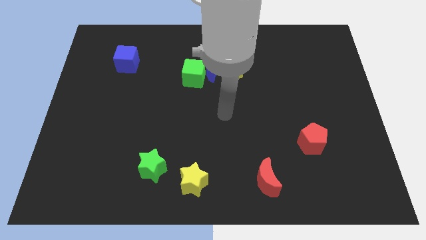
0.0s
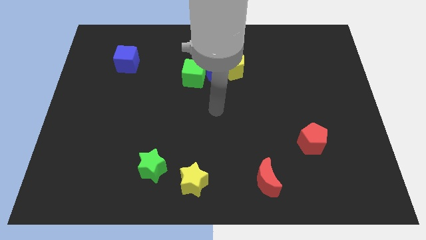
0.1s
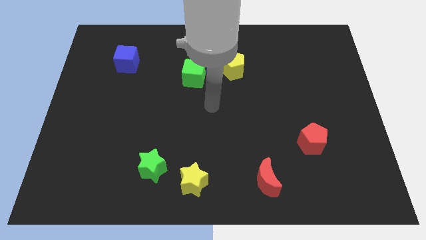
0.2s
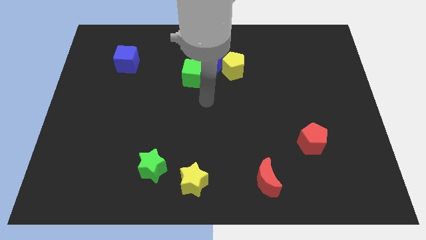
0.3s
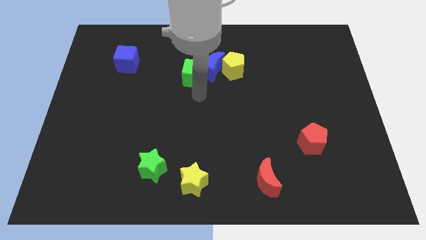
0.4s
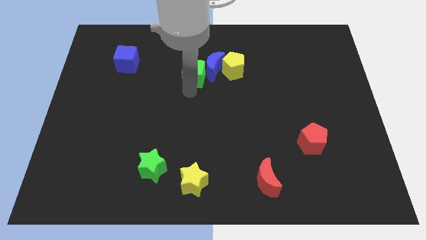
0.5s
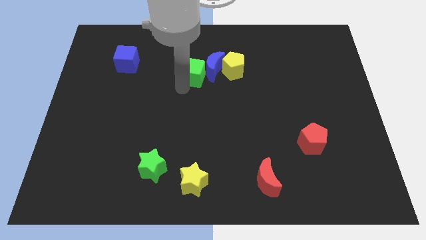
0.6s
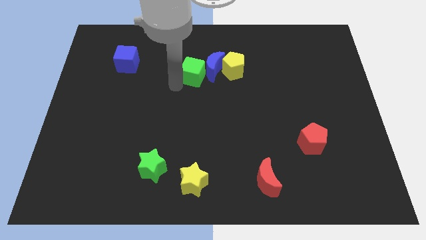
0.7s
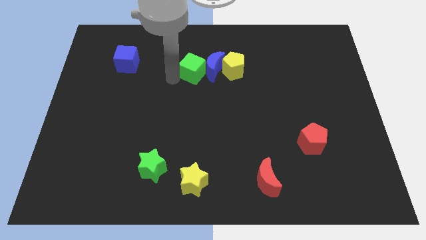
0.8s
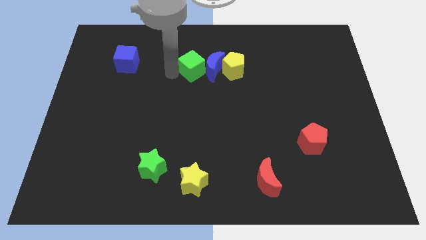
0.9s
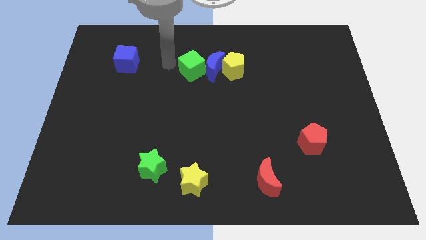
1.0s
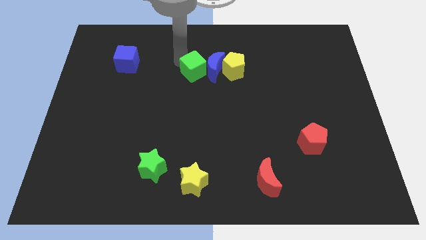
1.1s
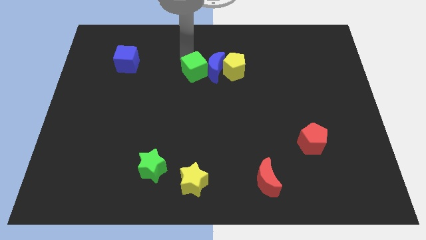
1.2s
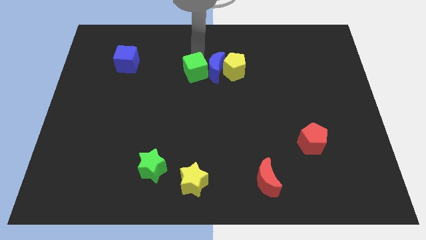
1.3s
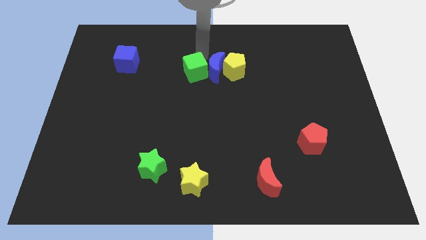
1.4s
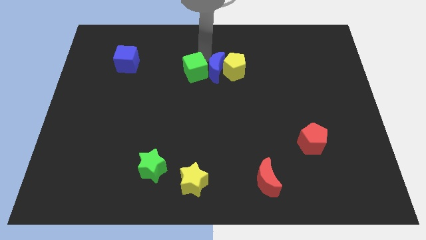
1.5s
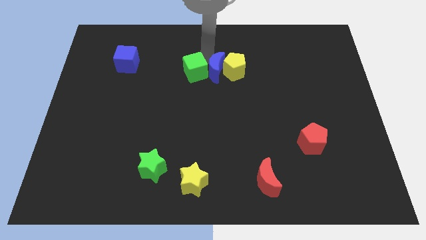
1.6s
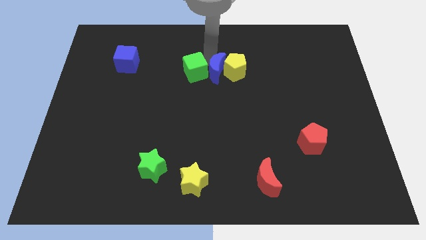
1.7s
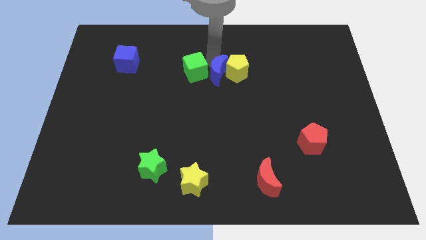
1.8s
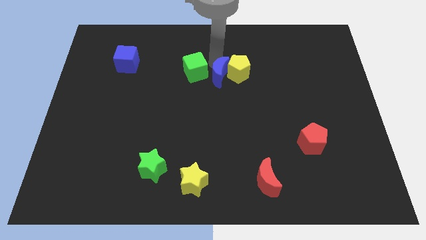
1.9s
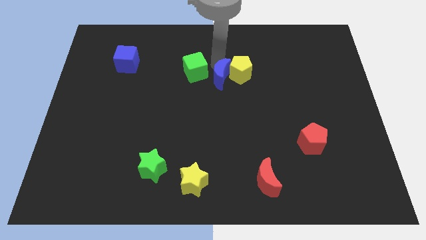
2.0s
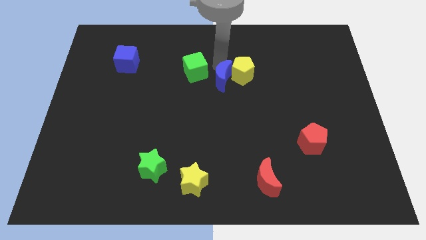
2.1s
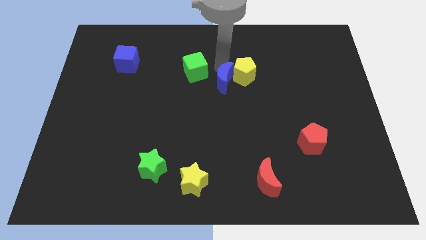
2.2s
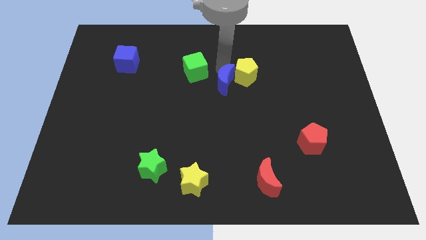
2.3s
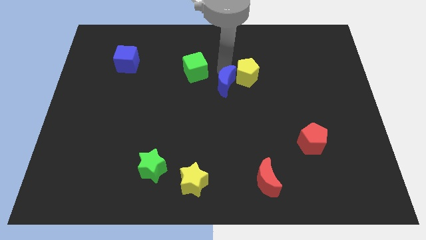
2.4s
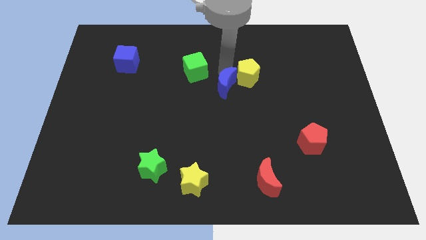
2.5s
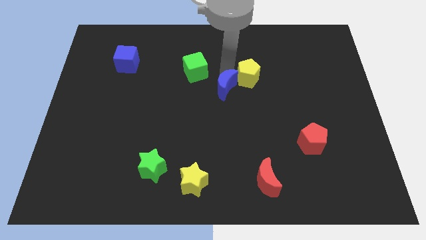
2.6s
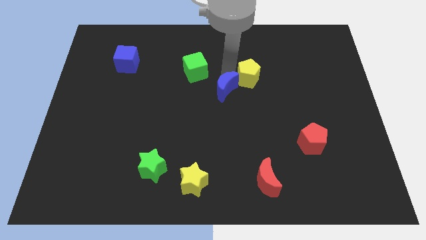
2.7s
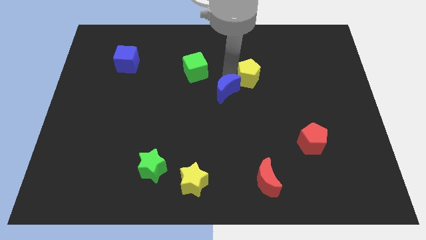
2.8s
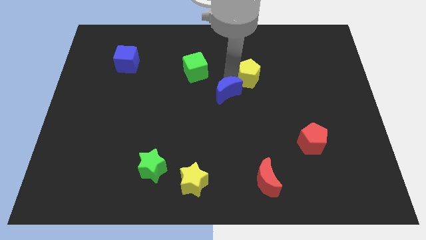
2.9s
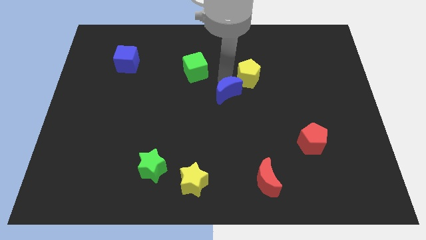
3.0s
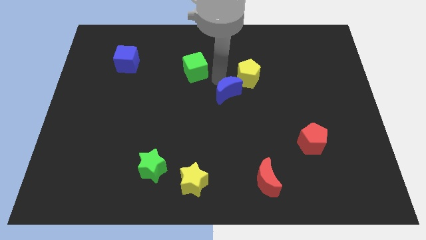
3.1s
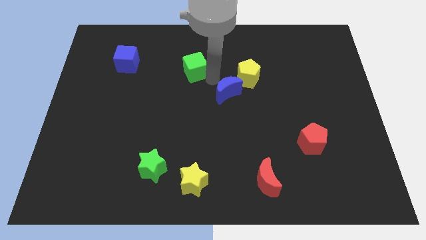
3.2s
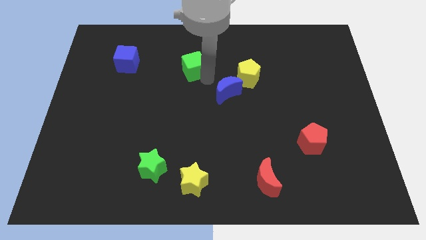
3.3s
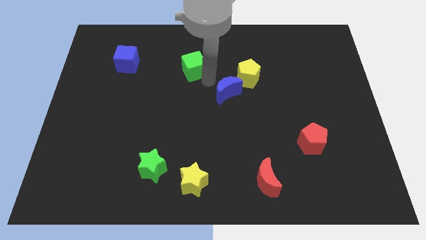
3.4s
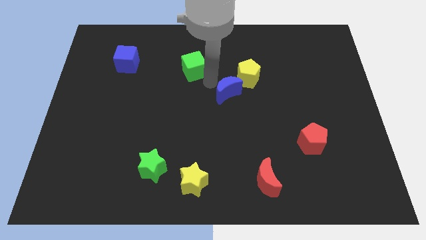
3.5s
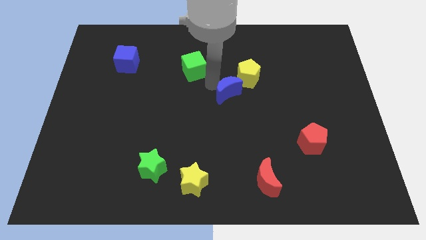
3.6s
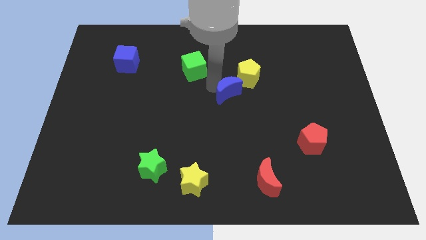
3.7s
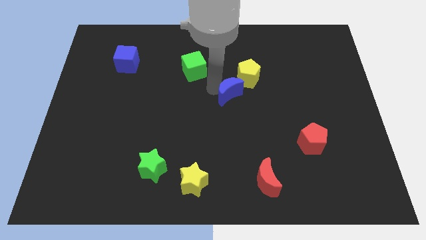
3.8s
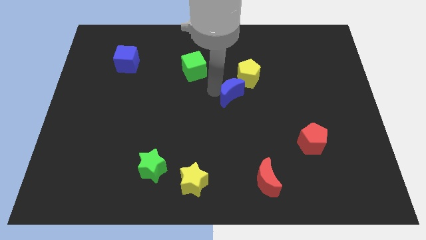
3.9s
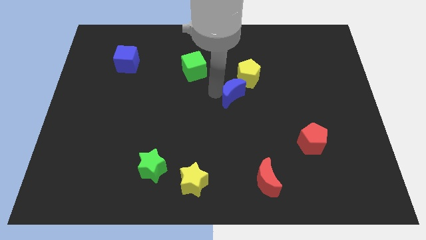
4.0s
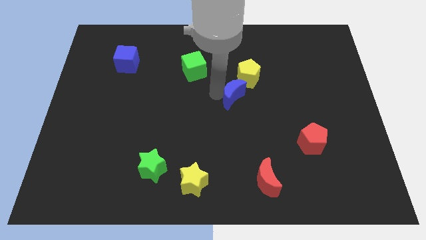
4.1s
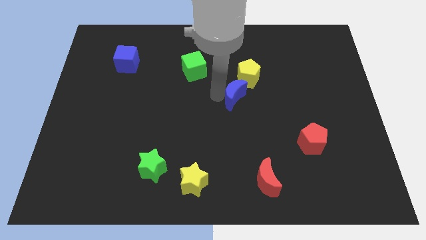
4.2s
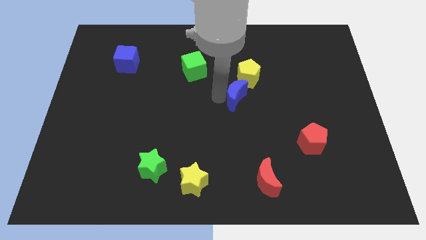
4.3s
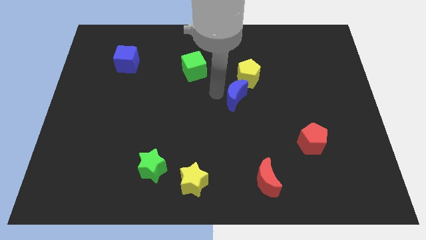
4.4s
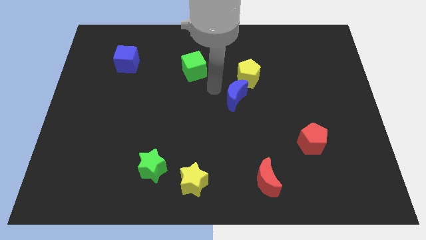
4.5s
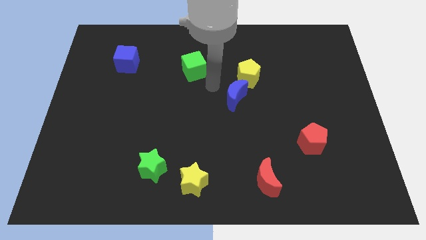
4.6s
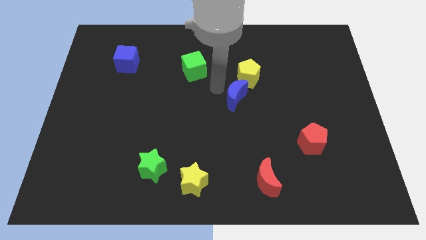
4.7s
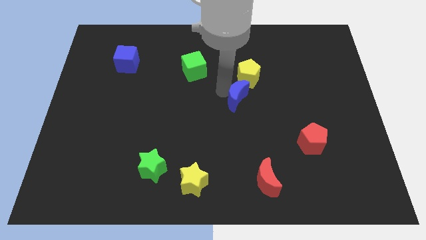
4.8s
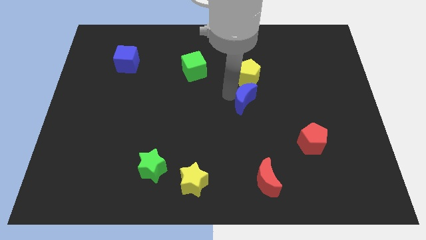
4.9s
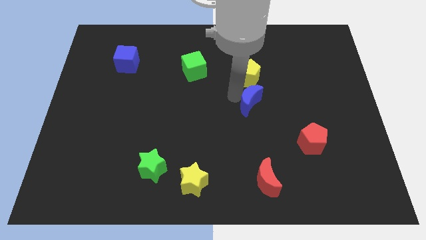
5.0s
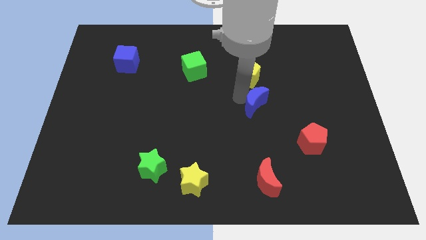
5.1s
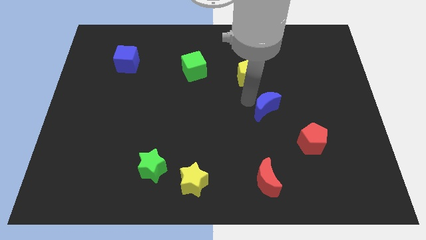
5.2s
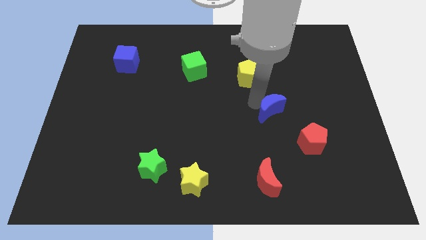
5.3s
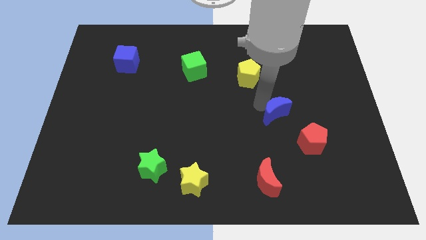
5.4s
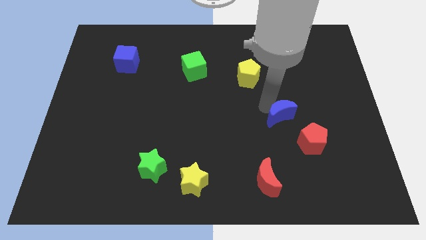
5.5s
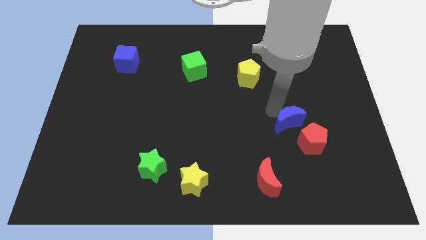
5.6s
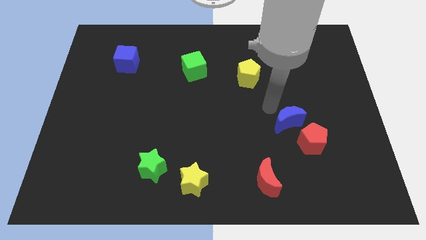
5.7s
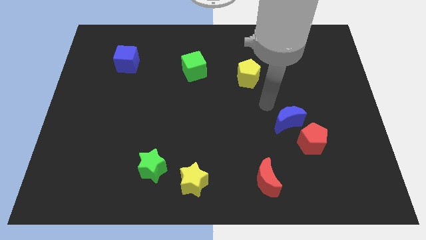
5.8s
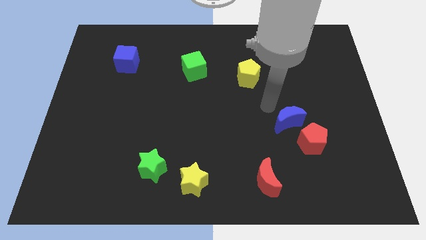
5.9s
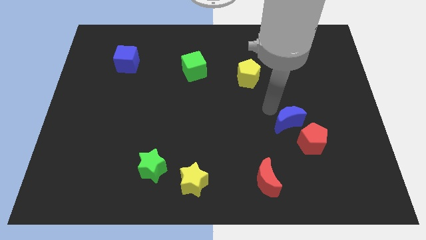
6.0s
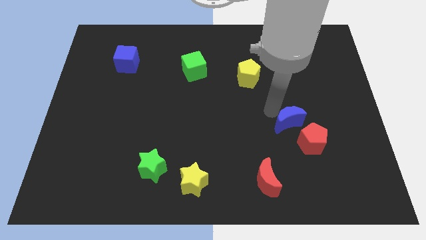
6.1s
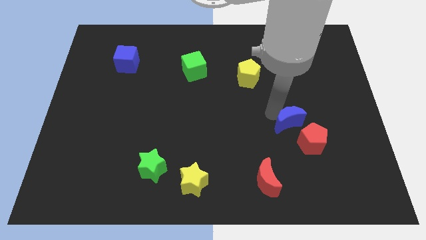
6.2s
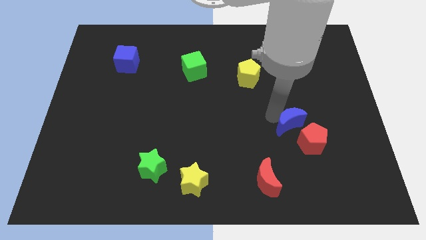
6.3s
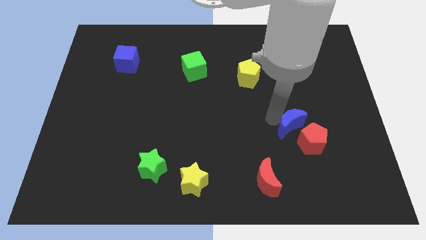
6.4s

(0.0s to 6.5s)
move the blue moon to the red pentagon

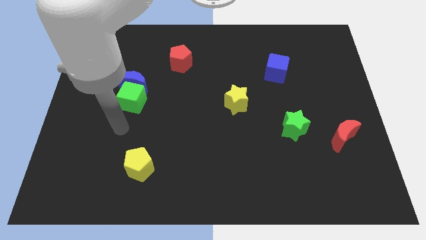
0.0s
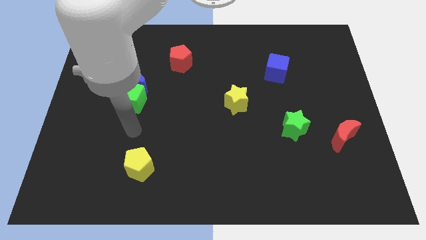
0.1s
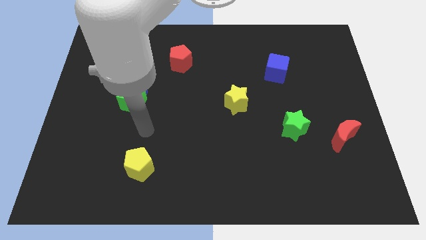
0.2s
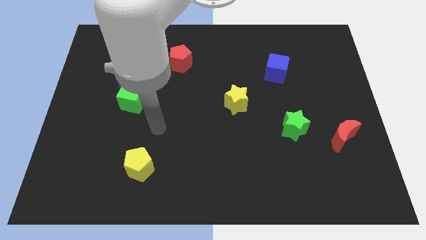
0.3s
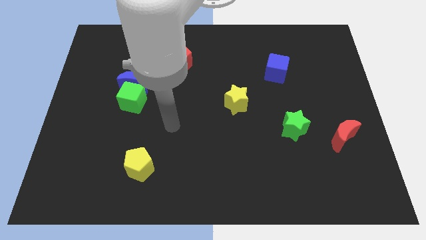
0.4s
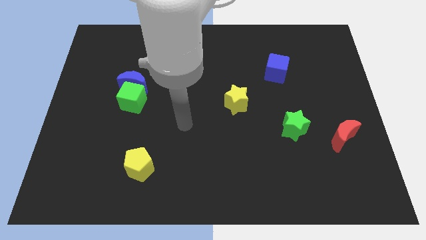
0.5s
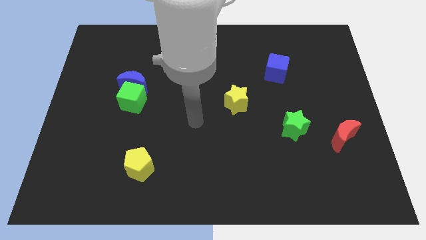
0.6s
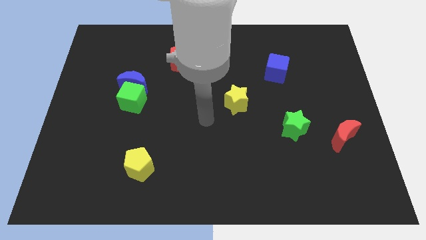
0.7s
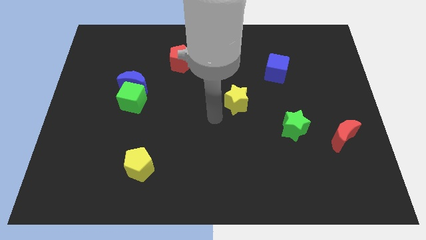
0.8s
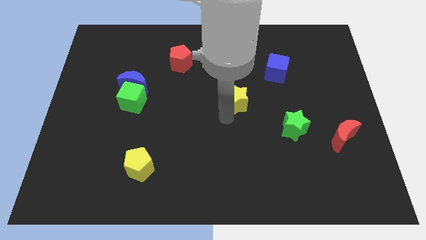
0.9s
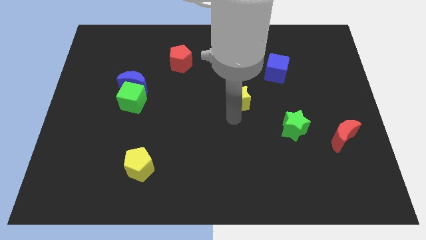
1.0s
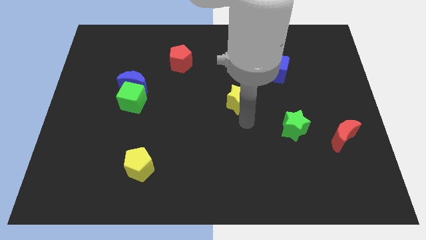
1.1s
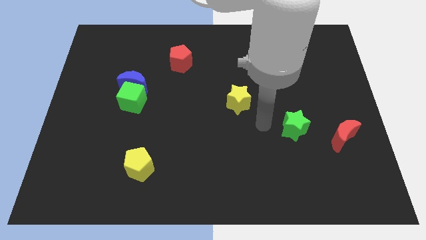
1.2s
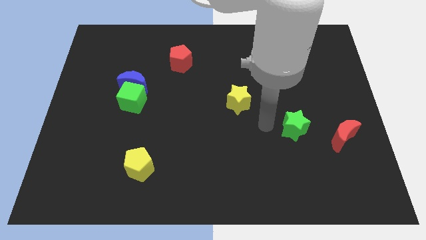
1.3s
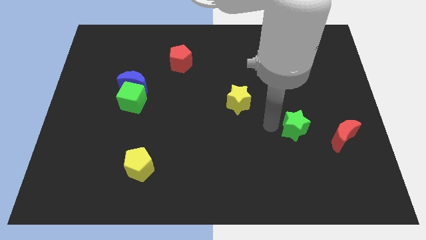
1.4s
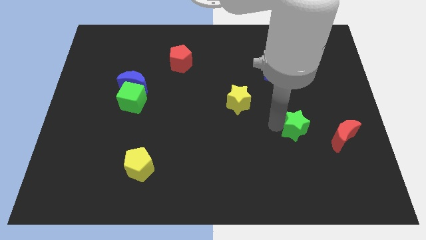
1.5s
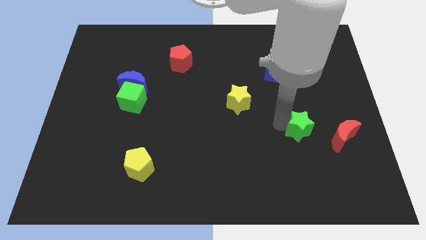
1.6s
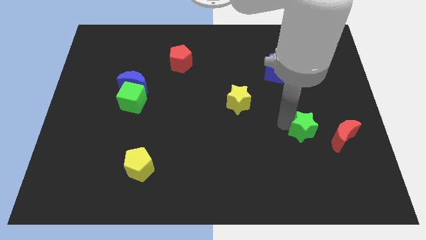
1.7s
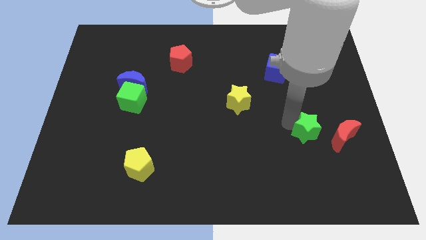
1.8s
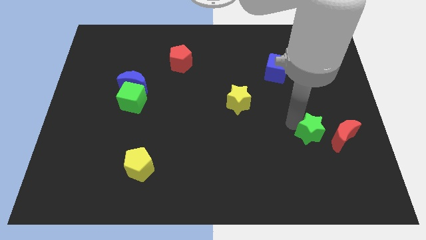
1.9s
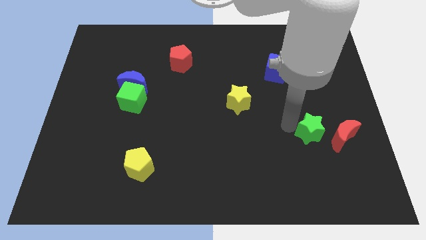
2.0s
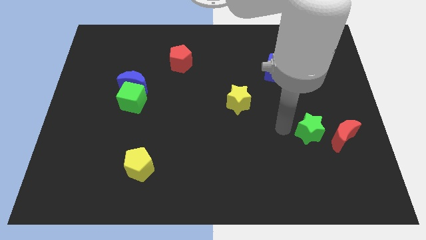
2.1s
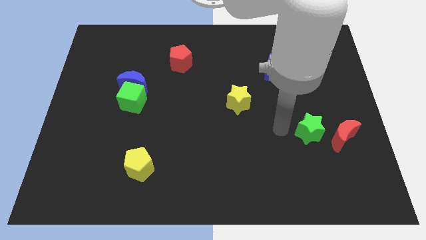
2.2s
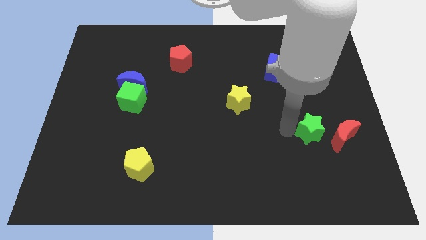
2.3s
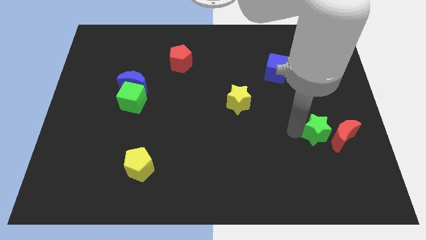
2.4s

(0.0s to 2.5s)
move the green star next to the red moon
